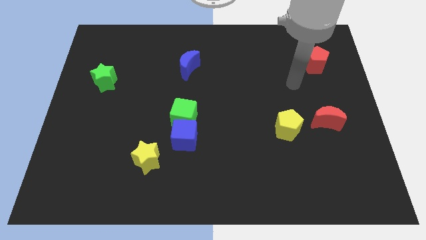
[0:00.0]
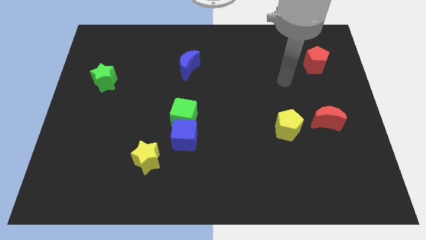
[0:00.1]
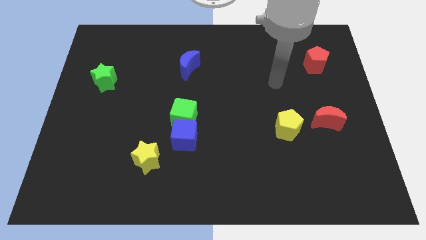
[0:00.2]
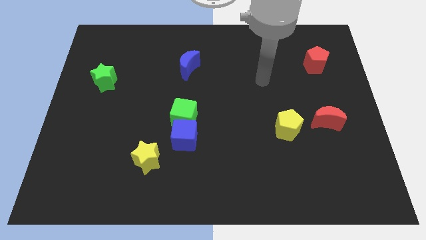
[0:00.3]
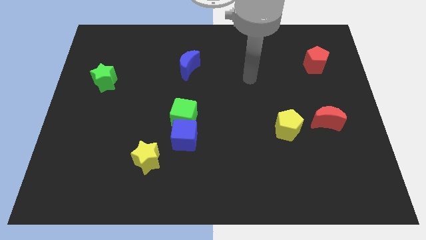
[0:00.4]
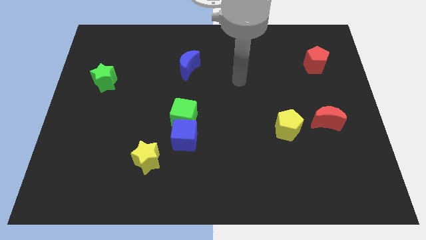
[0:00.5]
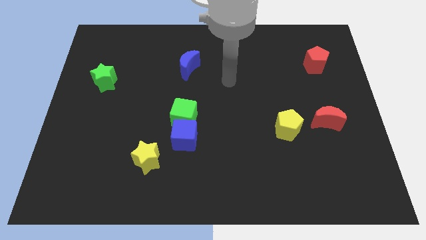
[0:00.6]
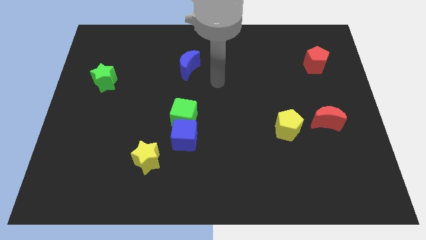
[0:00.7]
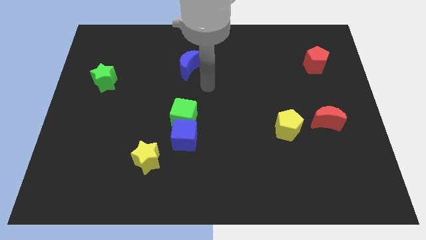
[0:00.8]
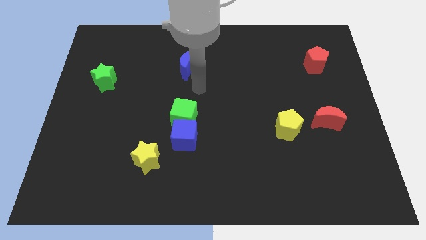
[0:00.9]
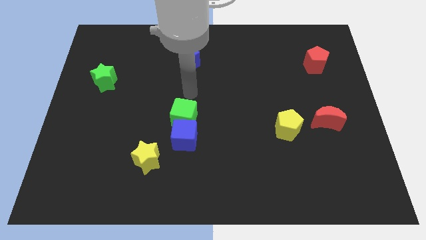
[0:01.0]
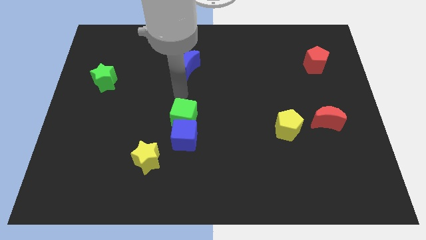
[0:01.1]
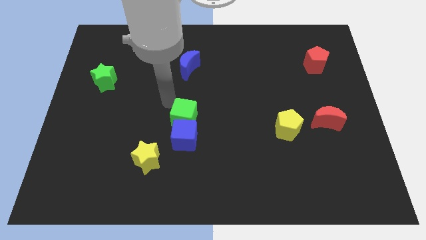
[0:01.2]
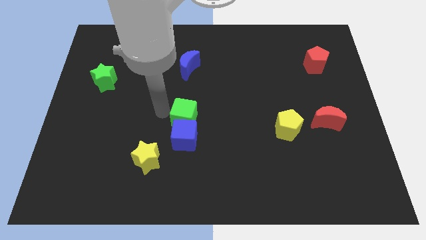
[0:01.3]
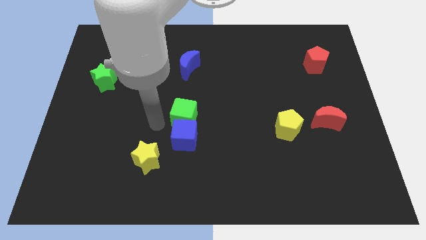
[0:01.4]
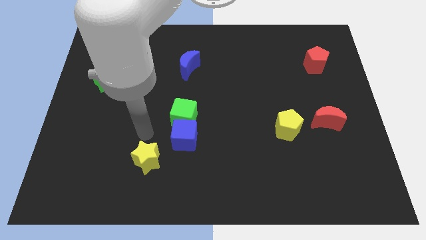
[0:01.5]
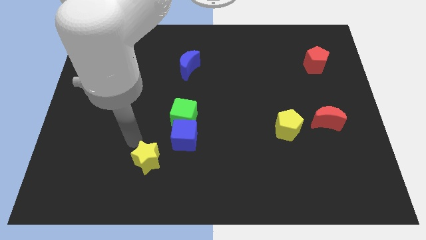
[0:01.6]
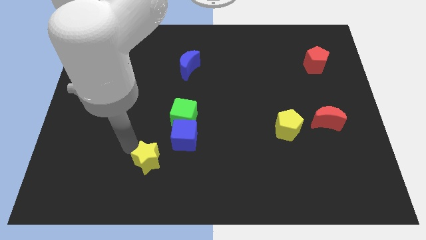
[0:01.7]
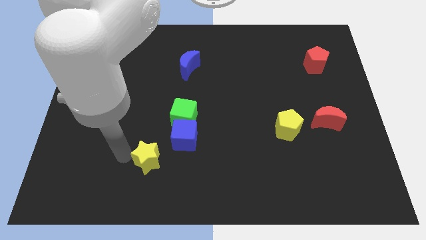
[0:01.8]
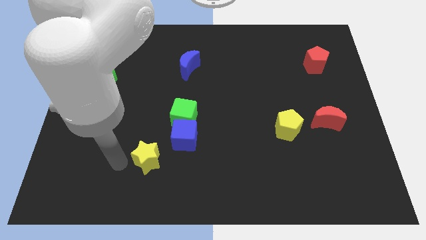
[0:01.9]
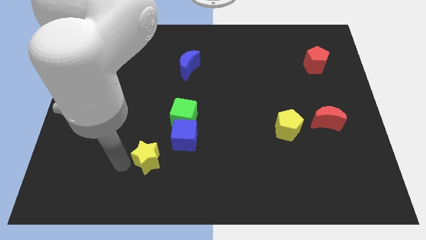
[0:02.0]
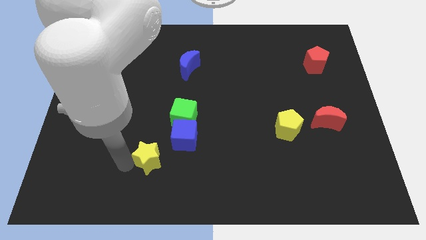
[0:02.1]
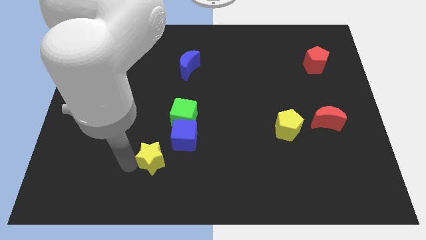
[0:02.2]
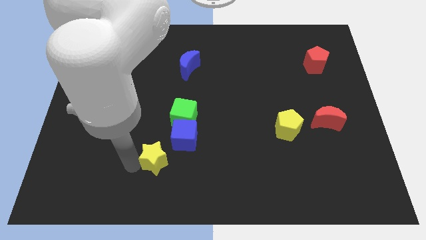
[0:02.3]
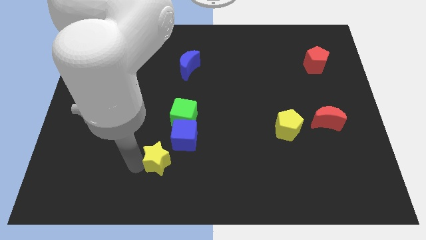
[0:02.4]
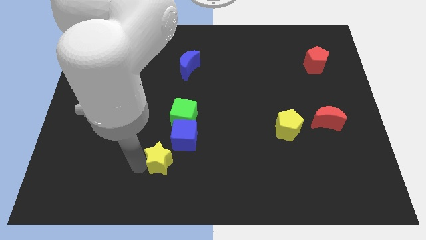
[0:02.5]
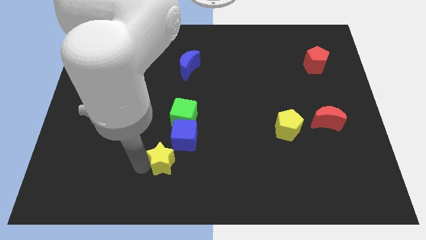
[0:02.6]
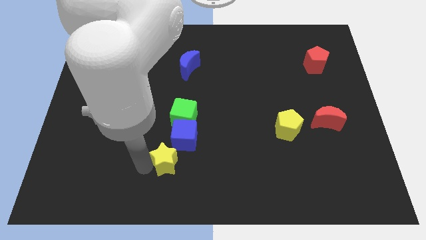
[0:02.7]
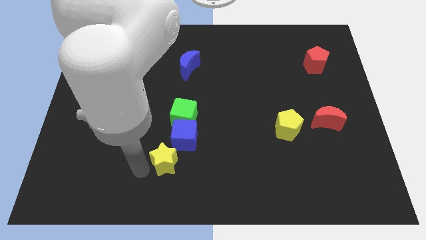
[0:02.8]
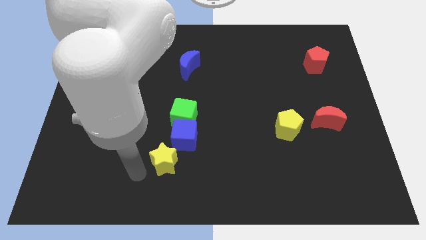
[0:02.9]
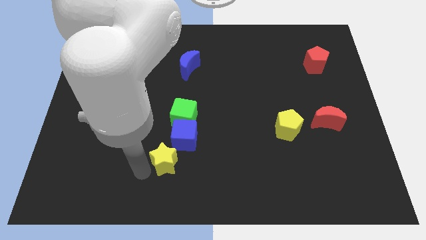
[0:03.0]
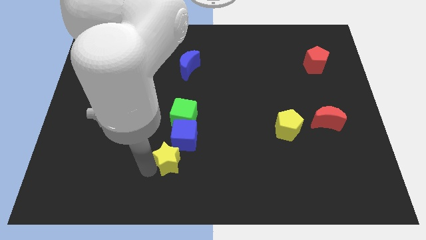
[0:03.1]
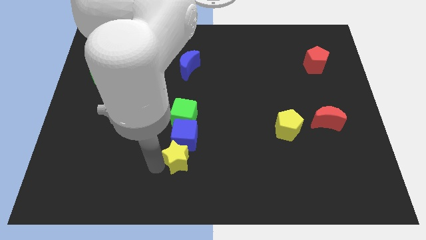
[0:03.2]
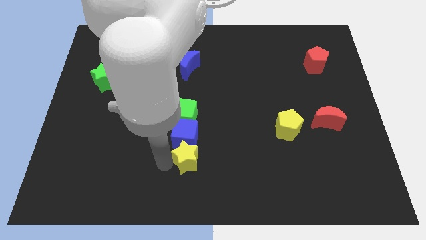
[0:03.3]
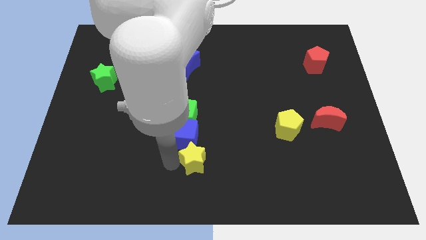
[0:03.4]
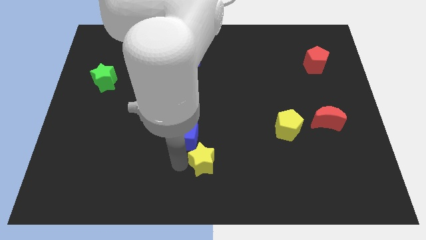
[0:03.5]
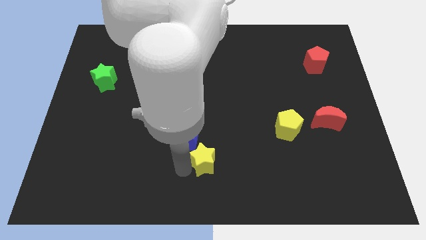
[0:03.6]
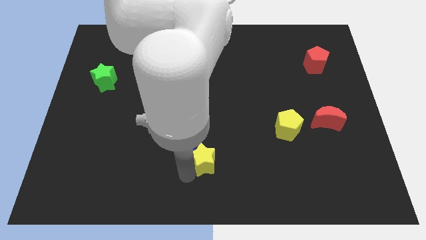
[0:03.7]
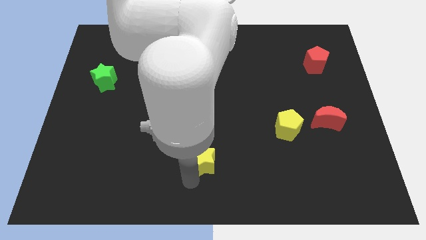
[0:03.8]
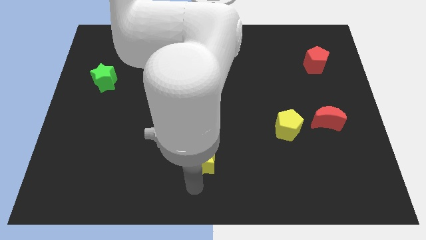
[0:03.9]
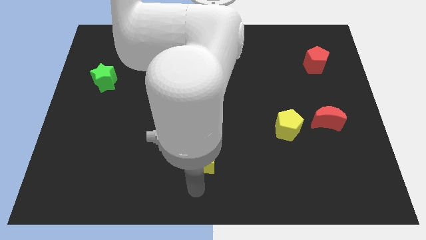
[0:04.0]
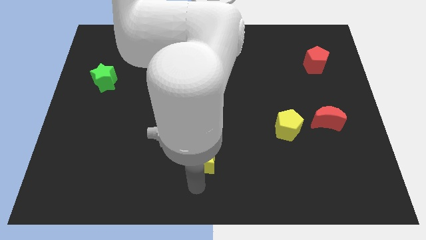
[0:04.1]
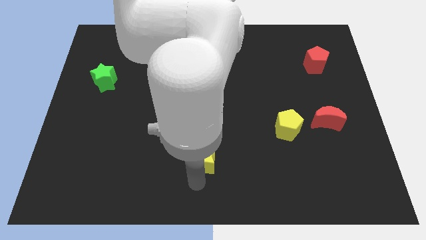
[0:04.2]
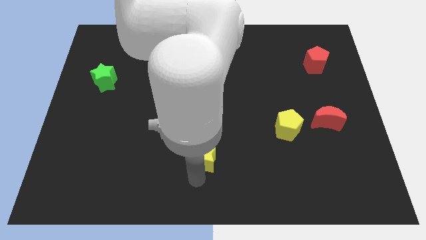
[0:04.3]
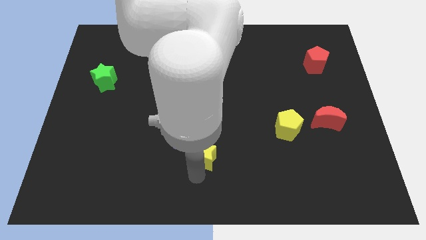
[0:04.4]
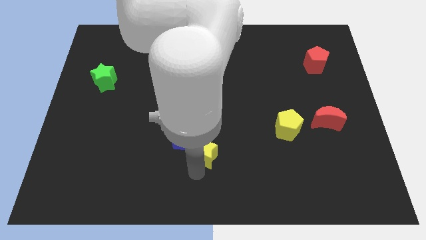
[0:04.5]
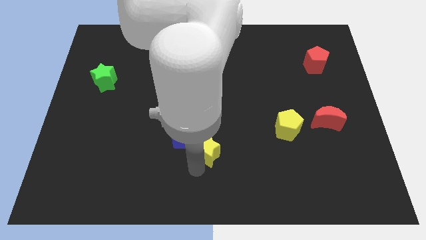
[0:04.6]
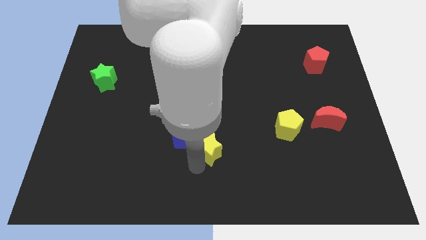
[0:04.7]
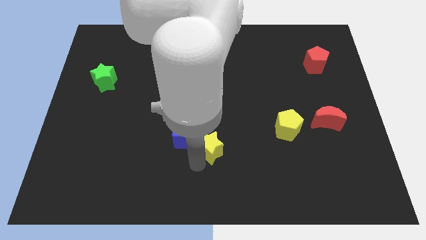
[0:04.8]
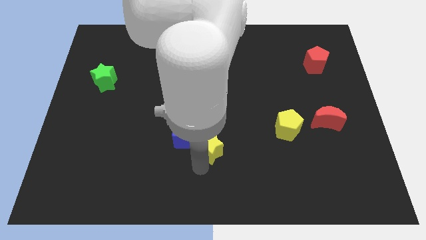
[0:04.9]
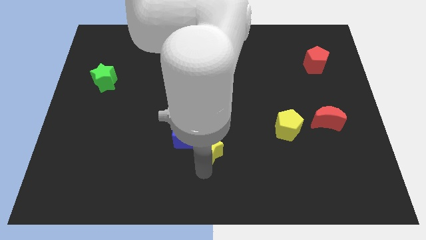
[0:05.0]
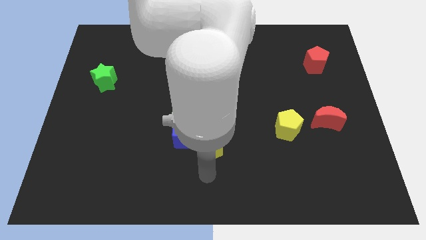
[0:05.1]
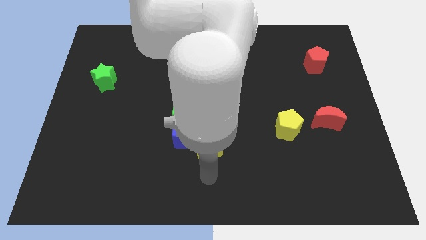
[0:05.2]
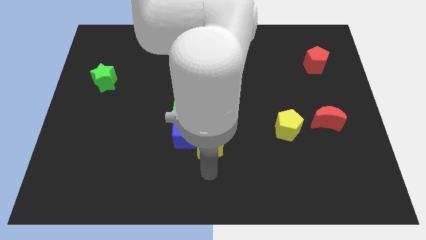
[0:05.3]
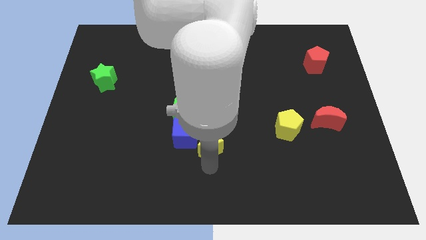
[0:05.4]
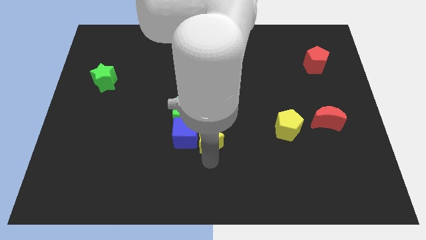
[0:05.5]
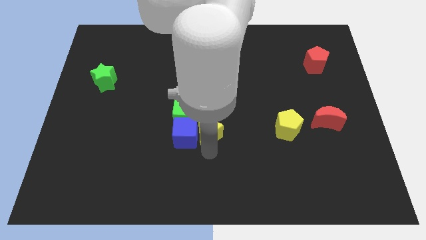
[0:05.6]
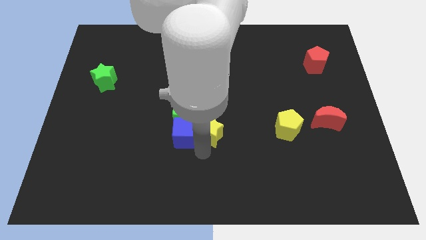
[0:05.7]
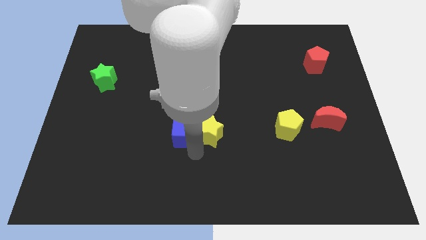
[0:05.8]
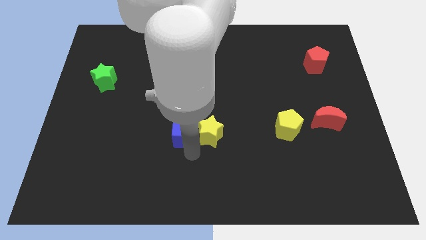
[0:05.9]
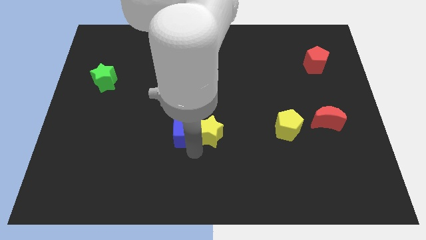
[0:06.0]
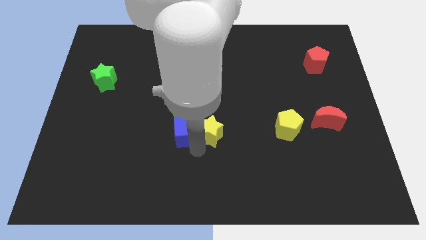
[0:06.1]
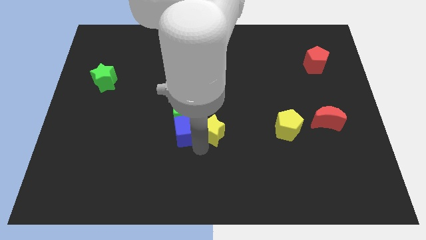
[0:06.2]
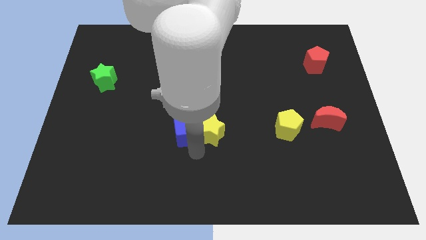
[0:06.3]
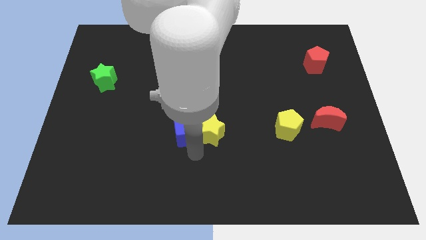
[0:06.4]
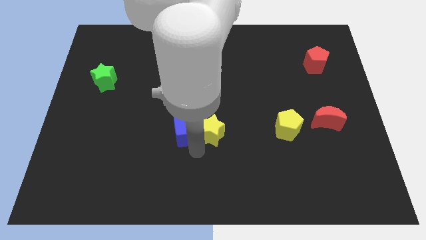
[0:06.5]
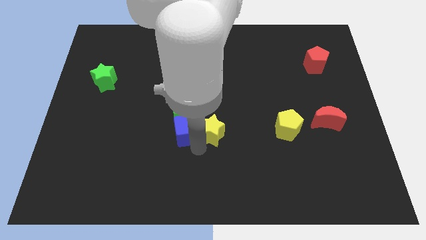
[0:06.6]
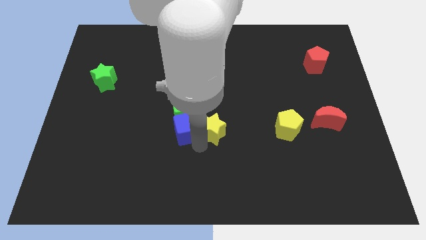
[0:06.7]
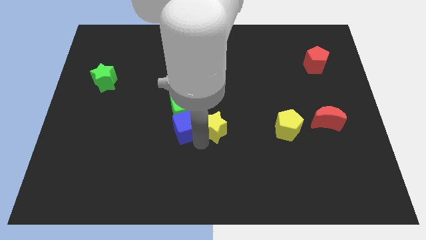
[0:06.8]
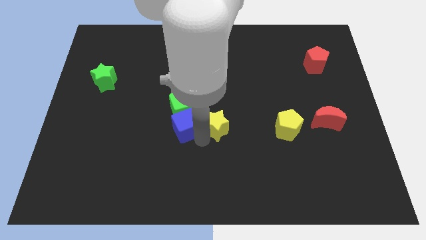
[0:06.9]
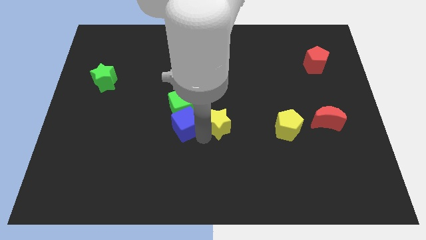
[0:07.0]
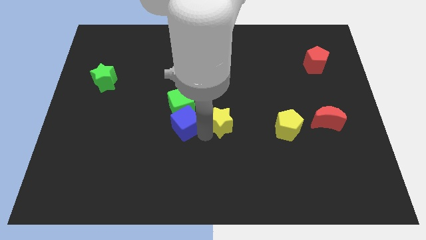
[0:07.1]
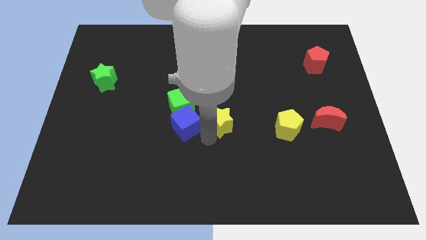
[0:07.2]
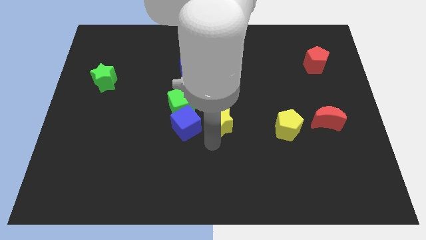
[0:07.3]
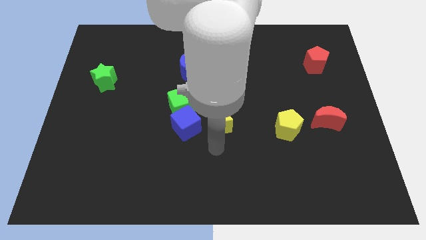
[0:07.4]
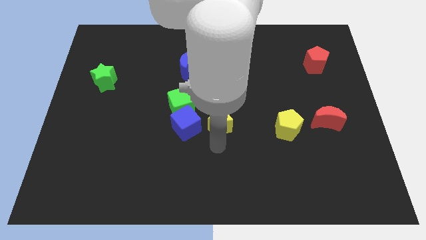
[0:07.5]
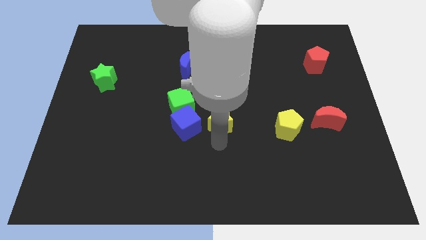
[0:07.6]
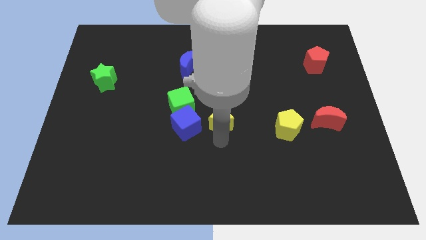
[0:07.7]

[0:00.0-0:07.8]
slide the yellow star to the right of the green cube

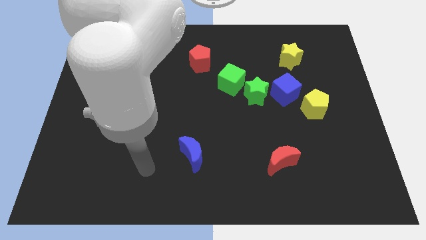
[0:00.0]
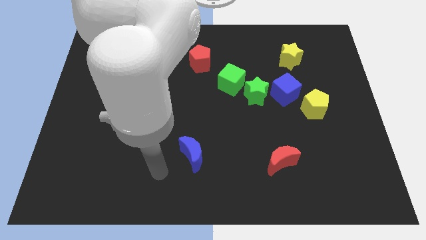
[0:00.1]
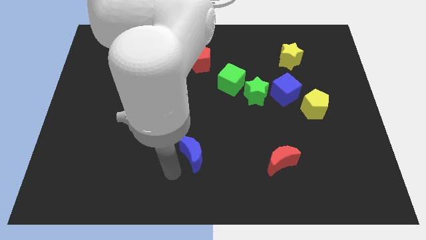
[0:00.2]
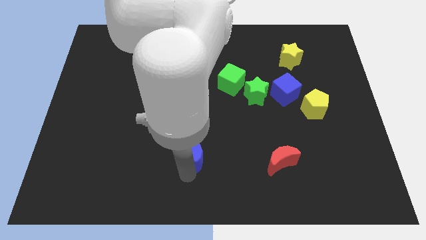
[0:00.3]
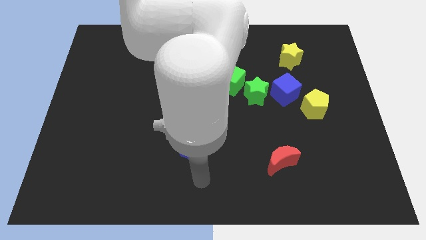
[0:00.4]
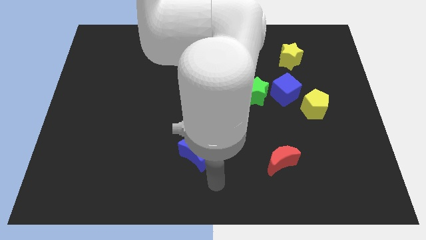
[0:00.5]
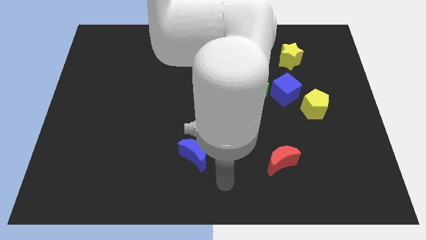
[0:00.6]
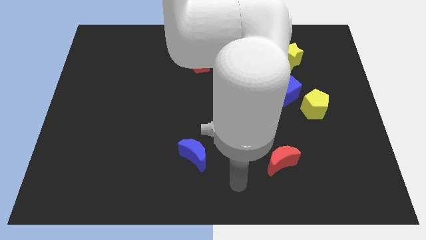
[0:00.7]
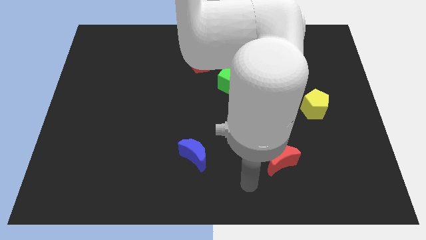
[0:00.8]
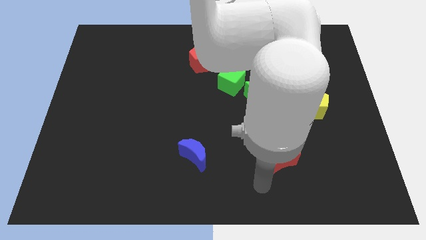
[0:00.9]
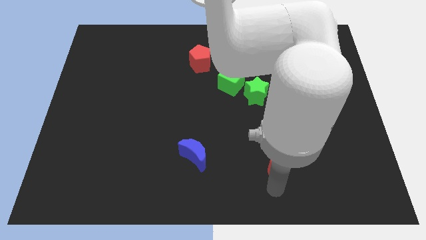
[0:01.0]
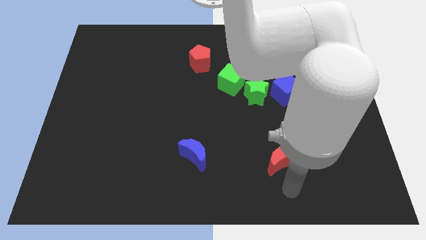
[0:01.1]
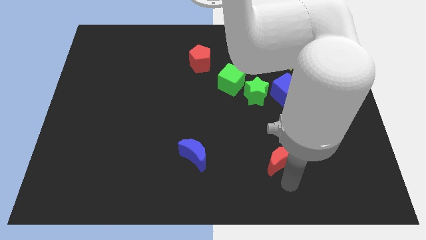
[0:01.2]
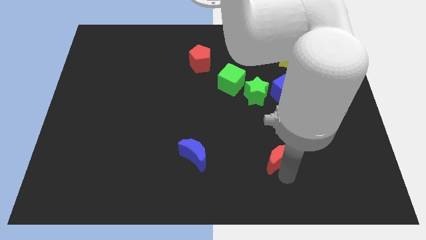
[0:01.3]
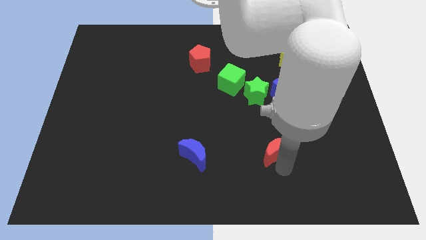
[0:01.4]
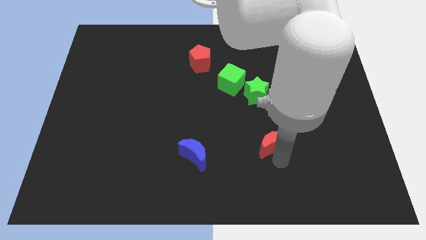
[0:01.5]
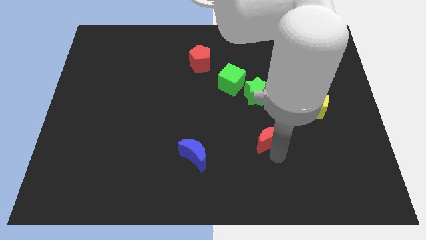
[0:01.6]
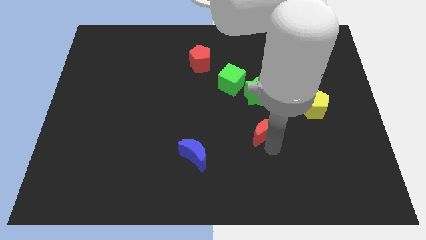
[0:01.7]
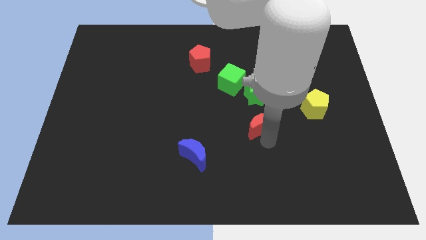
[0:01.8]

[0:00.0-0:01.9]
put the red moon diagonally down and to the left of the blue cube
